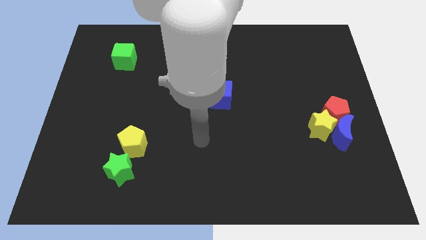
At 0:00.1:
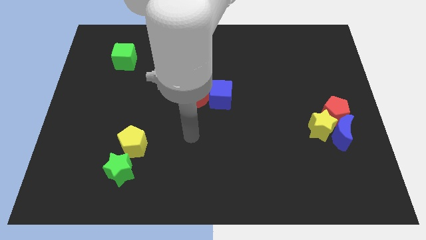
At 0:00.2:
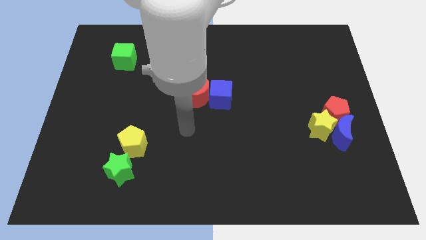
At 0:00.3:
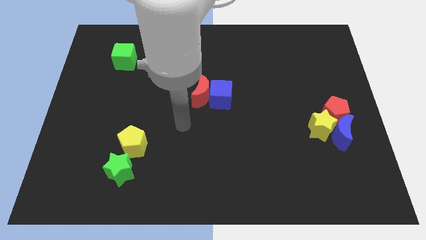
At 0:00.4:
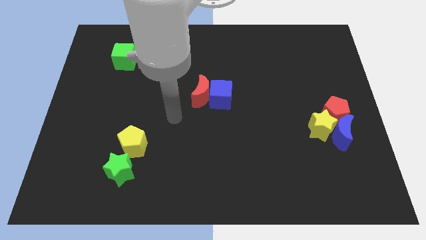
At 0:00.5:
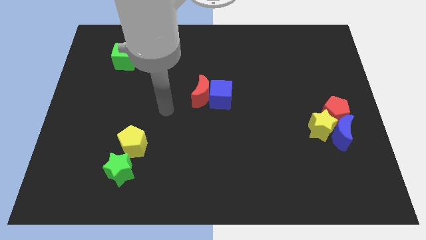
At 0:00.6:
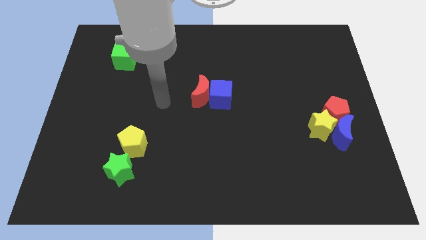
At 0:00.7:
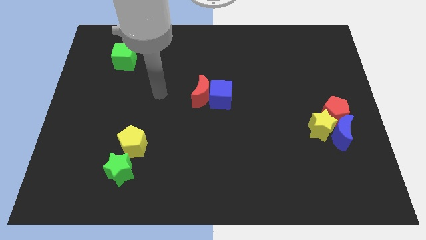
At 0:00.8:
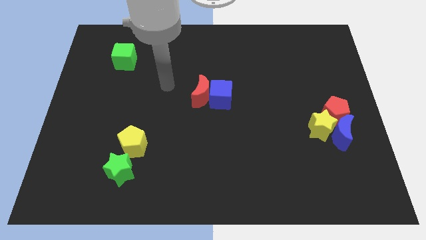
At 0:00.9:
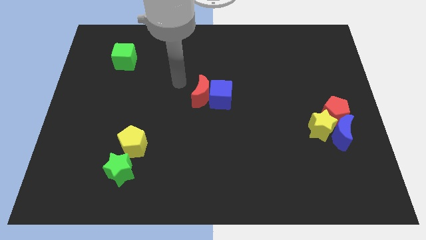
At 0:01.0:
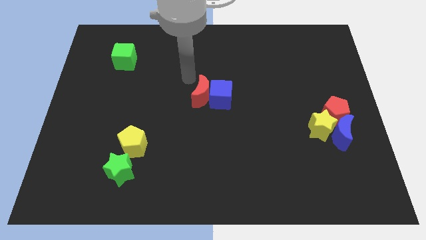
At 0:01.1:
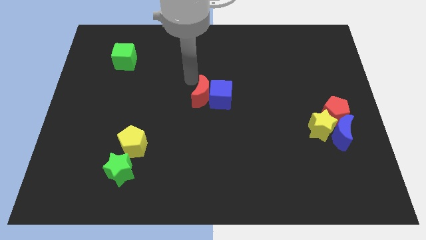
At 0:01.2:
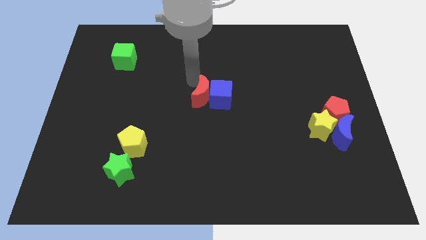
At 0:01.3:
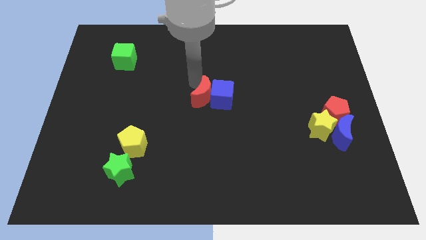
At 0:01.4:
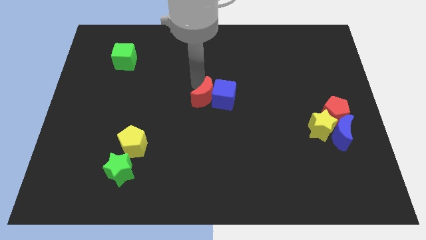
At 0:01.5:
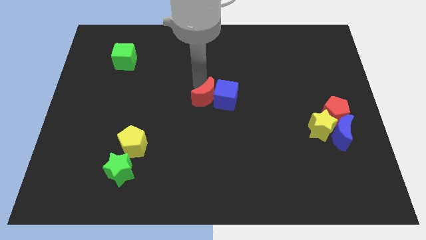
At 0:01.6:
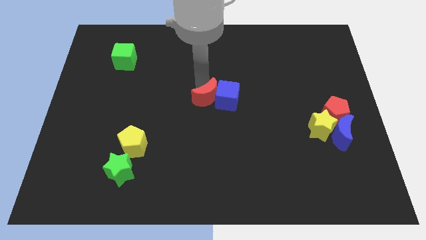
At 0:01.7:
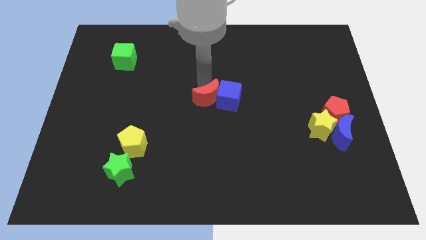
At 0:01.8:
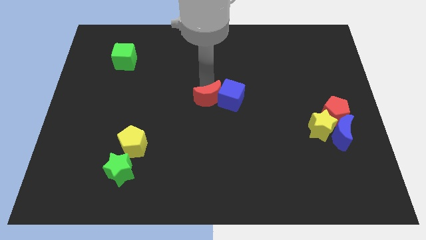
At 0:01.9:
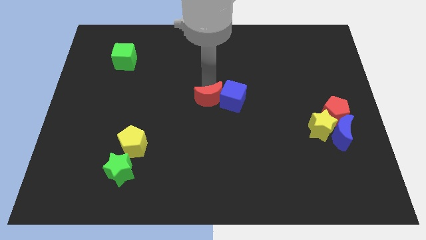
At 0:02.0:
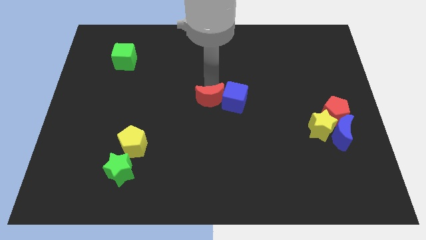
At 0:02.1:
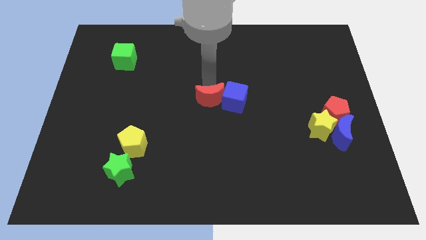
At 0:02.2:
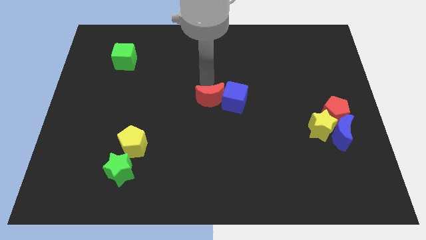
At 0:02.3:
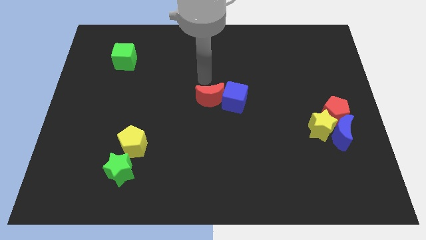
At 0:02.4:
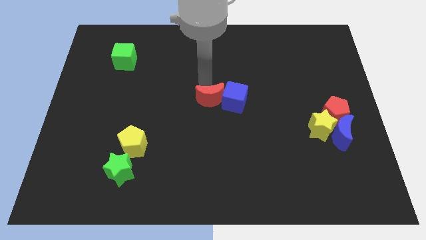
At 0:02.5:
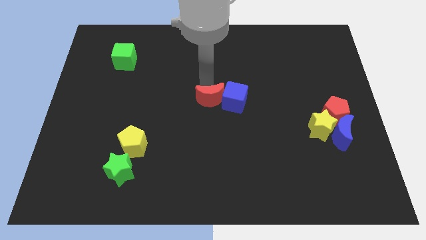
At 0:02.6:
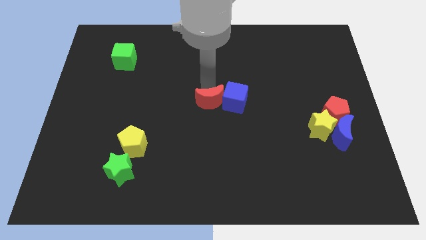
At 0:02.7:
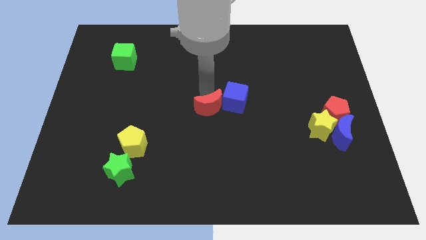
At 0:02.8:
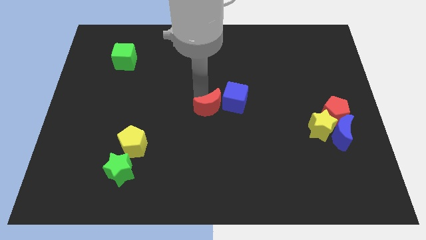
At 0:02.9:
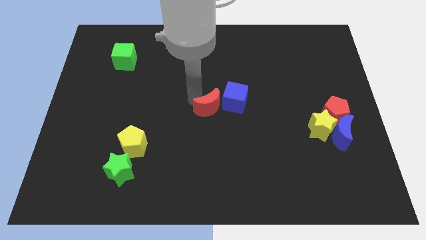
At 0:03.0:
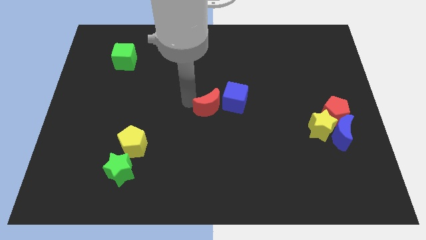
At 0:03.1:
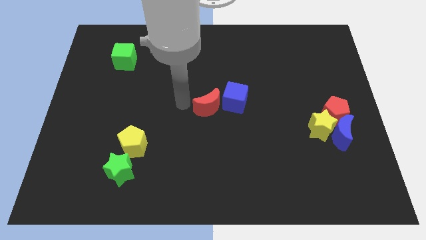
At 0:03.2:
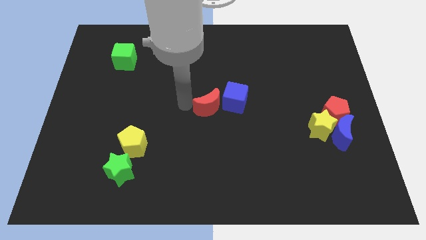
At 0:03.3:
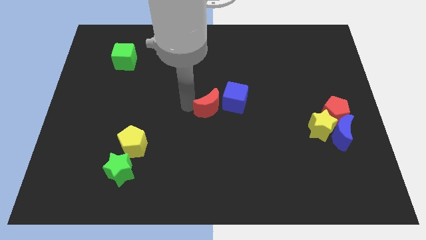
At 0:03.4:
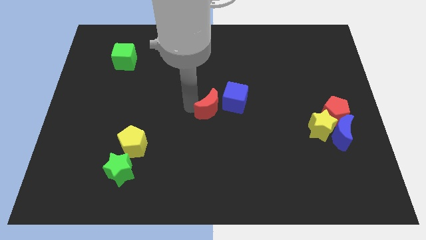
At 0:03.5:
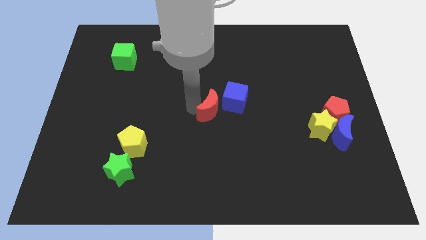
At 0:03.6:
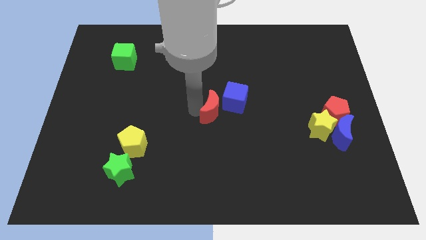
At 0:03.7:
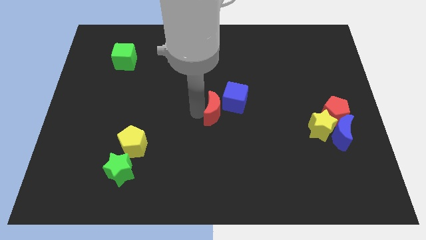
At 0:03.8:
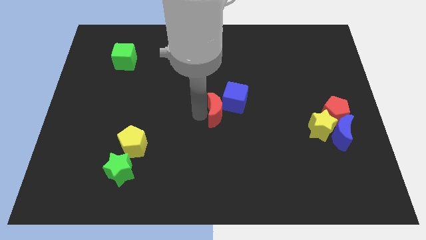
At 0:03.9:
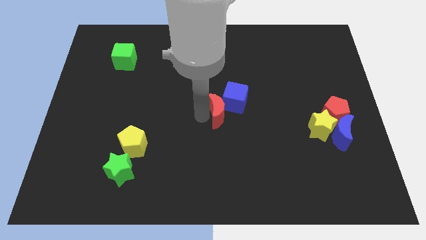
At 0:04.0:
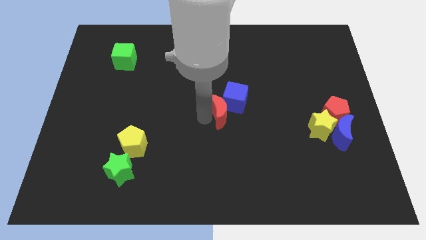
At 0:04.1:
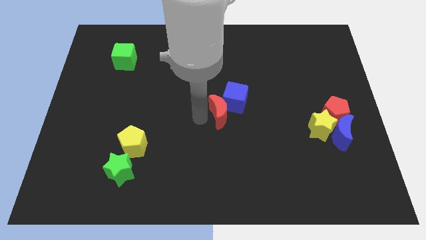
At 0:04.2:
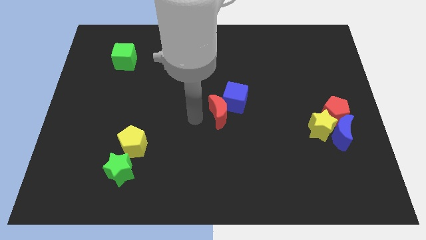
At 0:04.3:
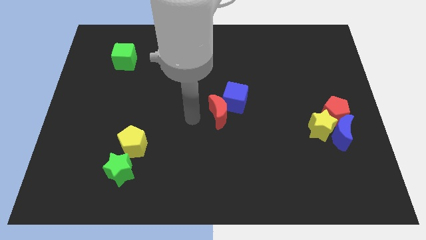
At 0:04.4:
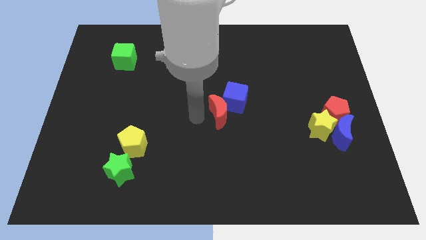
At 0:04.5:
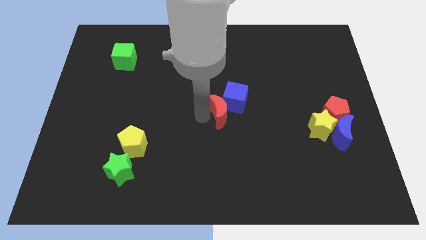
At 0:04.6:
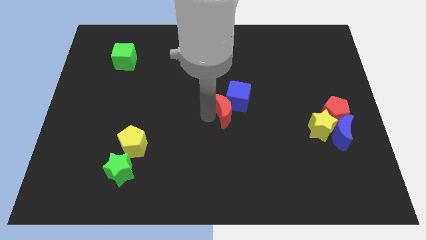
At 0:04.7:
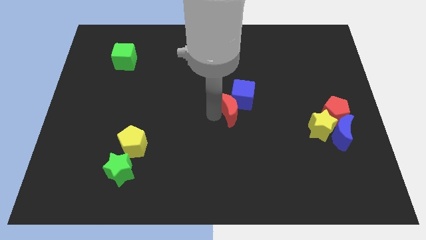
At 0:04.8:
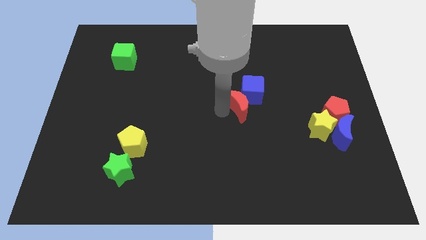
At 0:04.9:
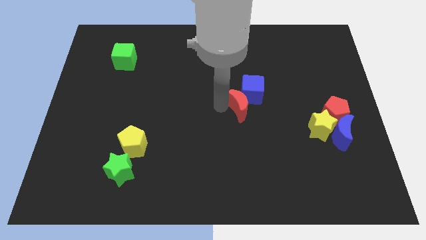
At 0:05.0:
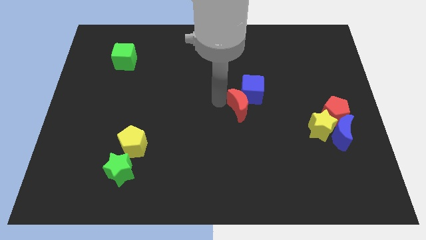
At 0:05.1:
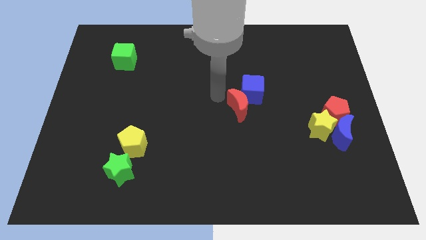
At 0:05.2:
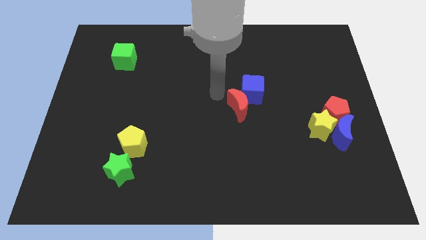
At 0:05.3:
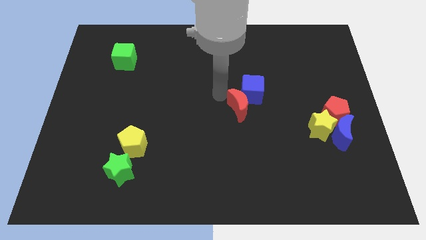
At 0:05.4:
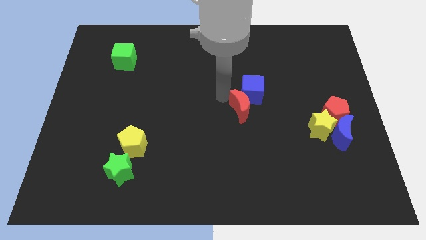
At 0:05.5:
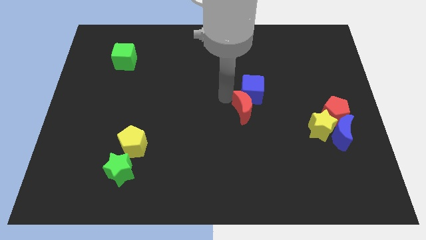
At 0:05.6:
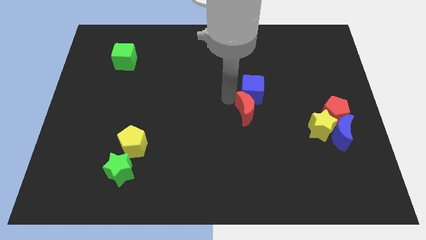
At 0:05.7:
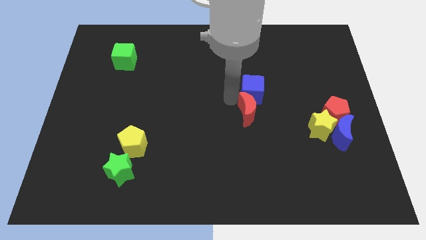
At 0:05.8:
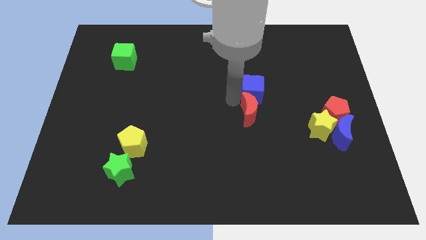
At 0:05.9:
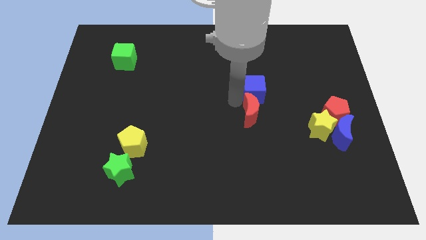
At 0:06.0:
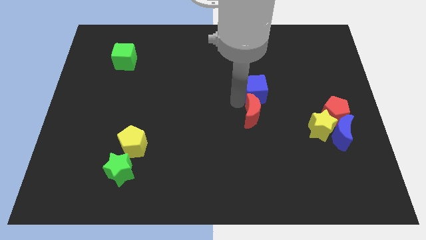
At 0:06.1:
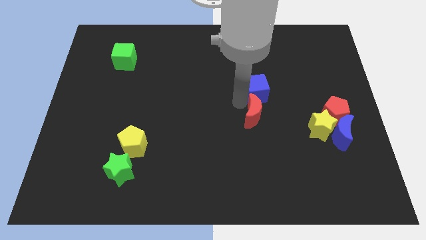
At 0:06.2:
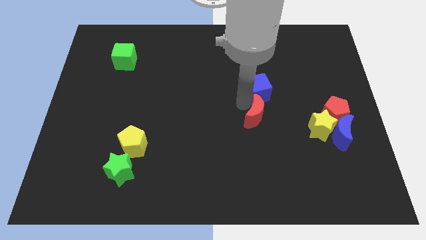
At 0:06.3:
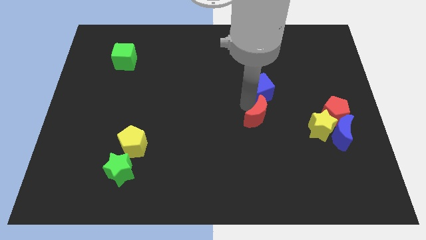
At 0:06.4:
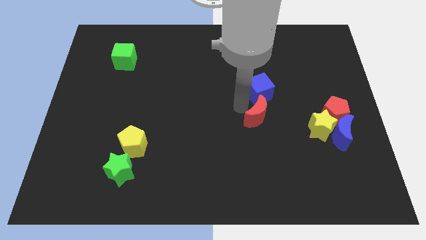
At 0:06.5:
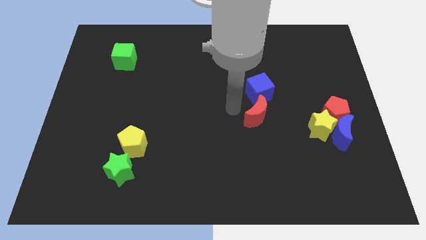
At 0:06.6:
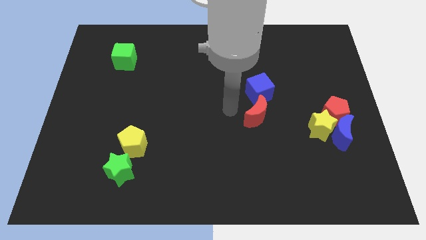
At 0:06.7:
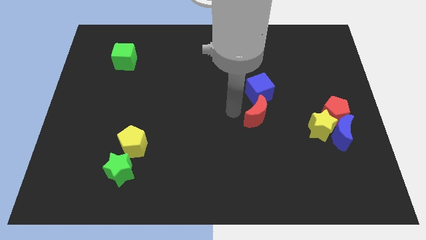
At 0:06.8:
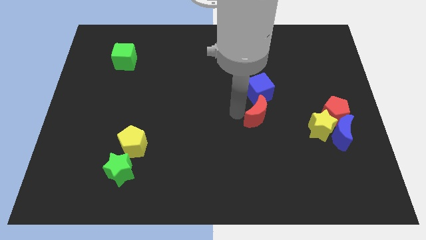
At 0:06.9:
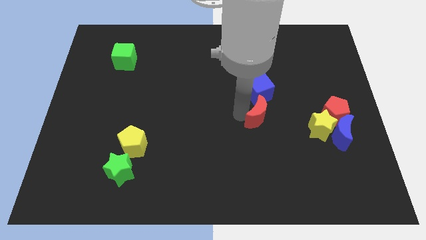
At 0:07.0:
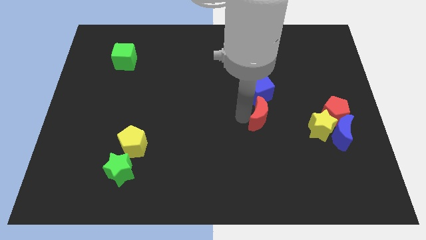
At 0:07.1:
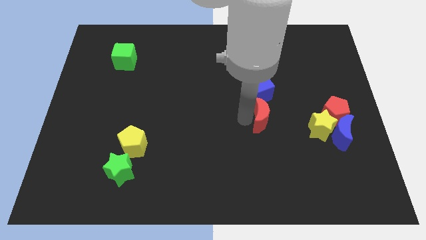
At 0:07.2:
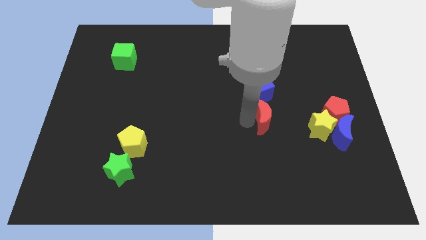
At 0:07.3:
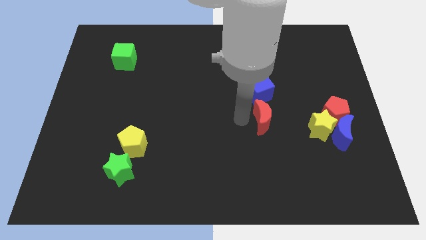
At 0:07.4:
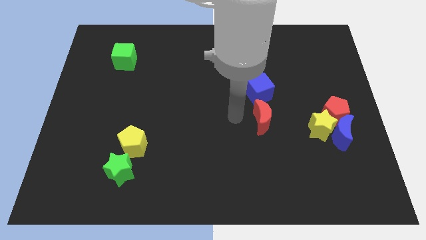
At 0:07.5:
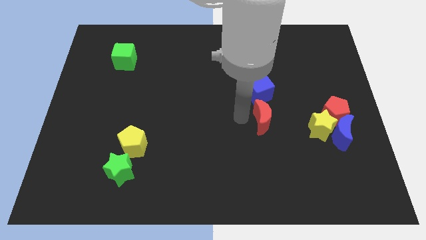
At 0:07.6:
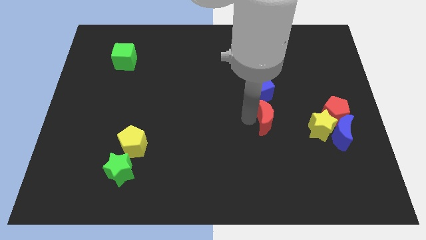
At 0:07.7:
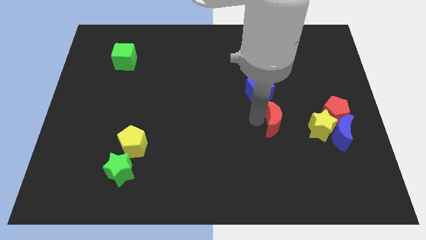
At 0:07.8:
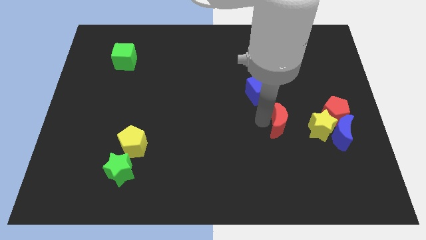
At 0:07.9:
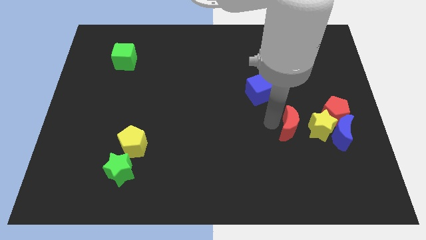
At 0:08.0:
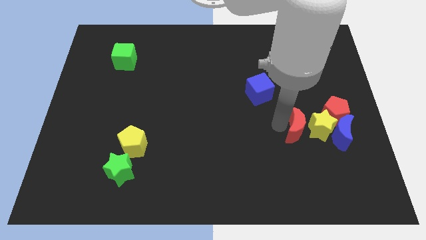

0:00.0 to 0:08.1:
slide the red moon close to the yellow star
